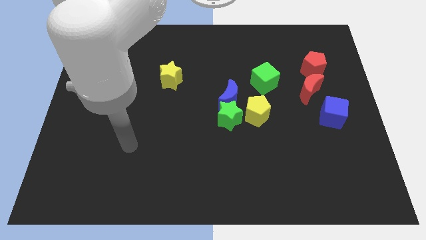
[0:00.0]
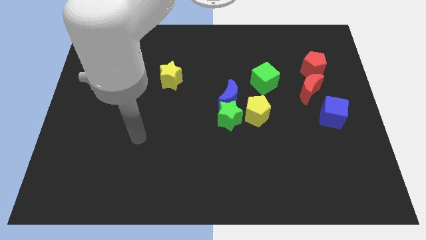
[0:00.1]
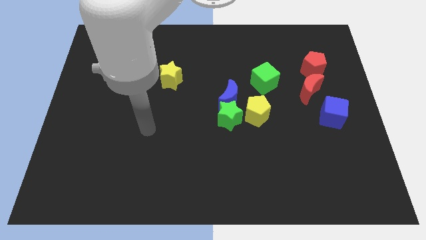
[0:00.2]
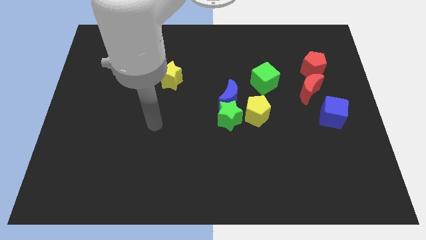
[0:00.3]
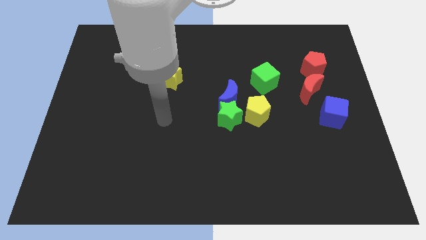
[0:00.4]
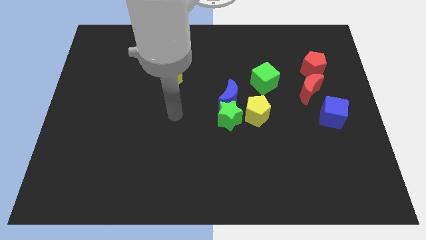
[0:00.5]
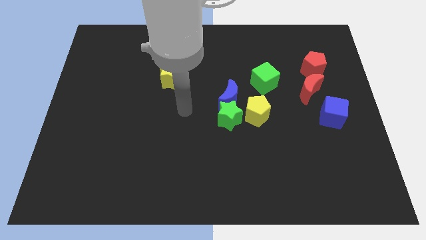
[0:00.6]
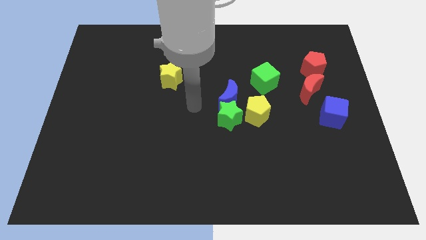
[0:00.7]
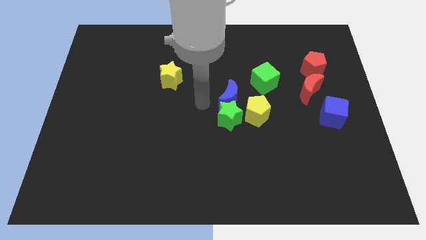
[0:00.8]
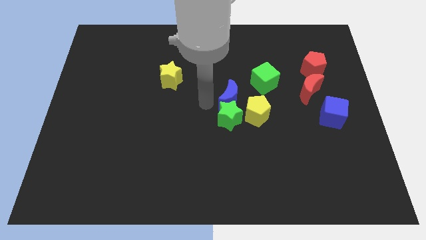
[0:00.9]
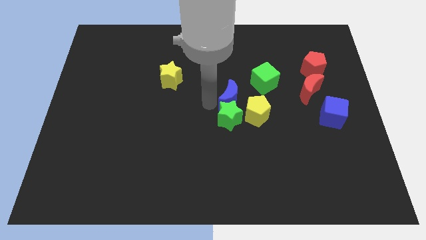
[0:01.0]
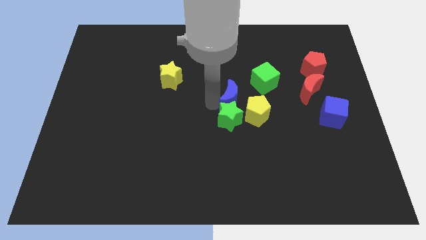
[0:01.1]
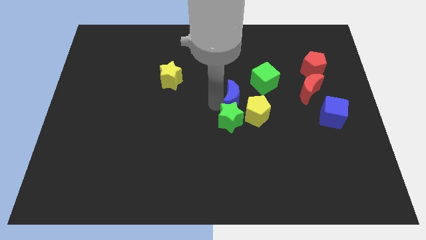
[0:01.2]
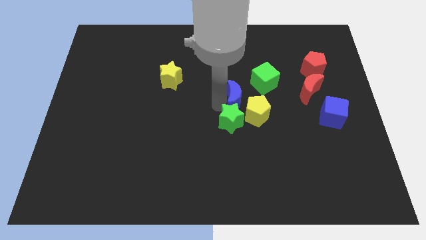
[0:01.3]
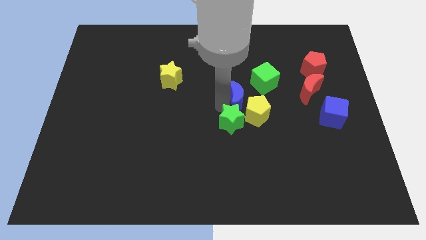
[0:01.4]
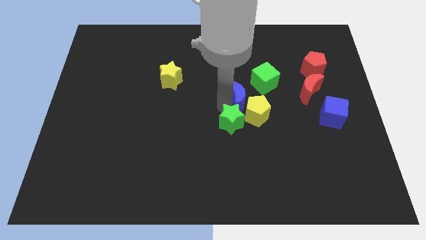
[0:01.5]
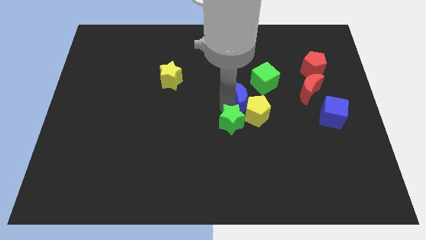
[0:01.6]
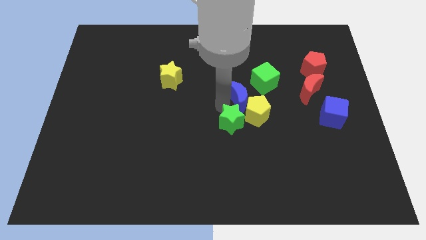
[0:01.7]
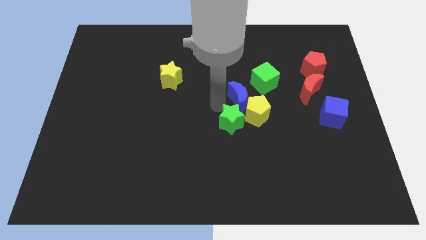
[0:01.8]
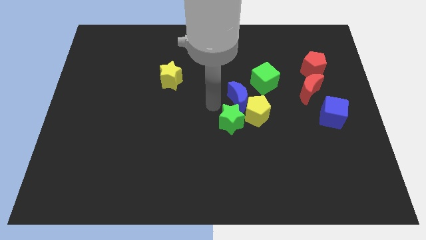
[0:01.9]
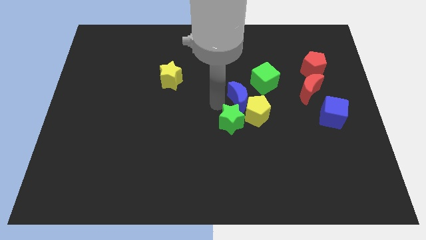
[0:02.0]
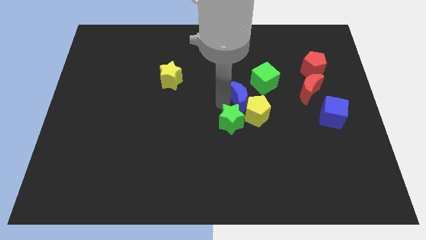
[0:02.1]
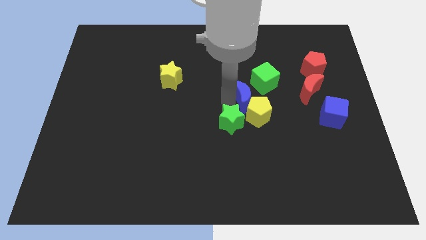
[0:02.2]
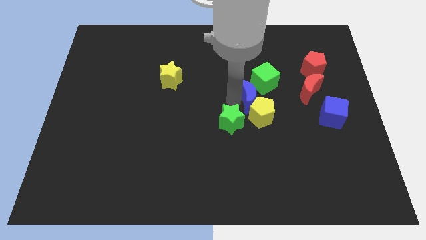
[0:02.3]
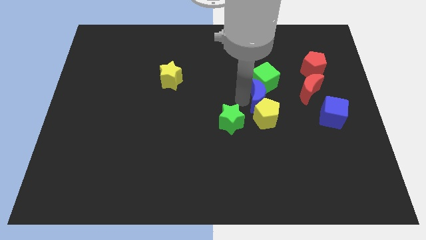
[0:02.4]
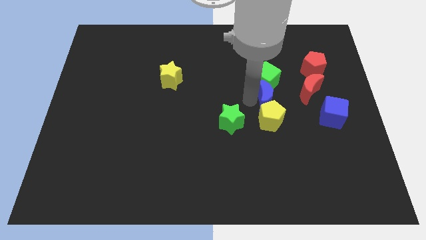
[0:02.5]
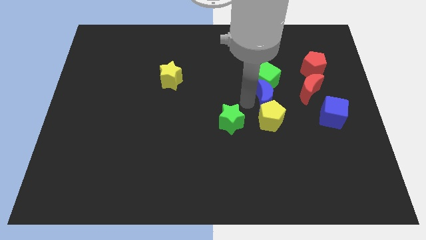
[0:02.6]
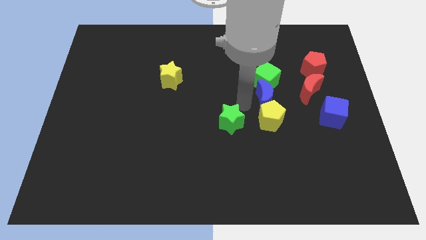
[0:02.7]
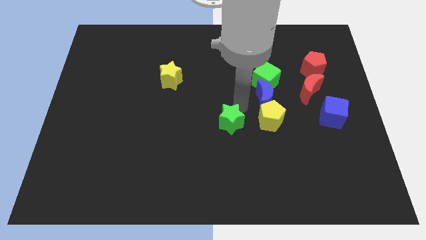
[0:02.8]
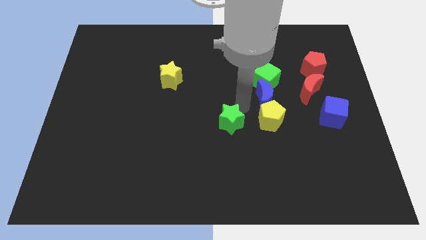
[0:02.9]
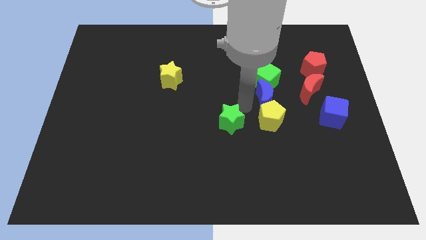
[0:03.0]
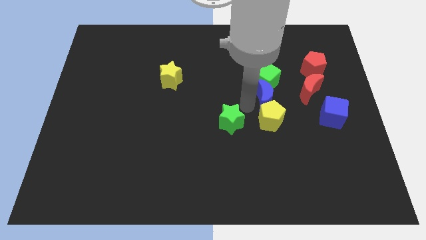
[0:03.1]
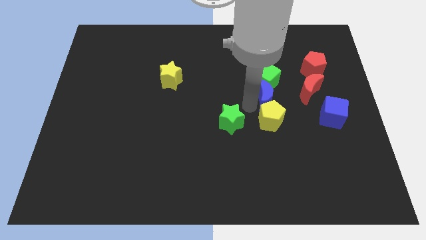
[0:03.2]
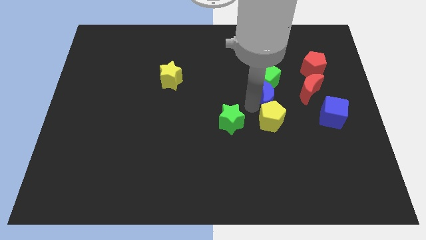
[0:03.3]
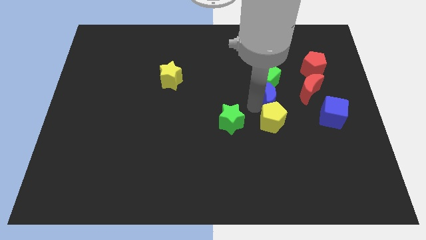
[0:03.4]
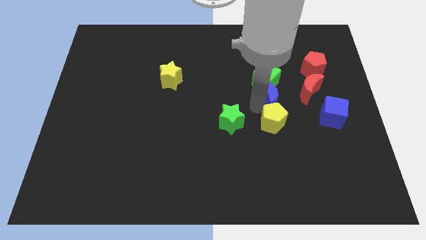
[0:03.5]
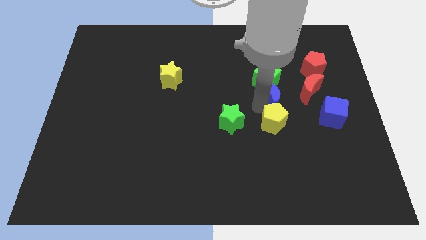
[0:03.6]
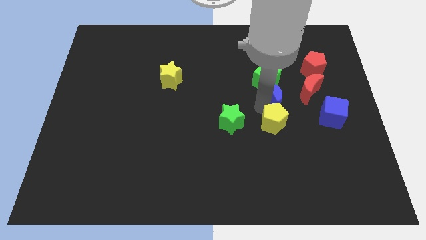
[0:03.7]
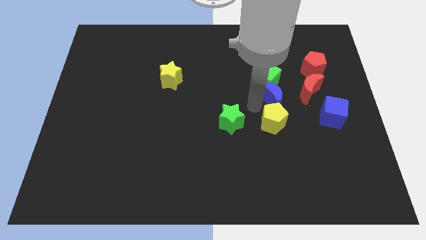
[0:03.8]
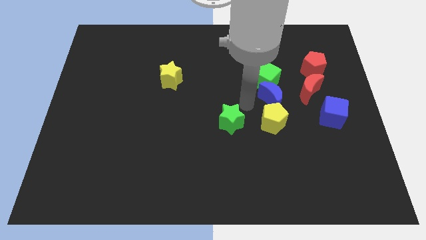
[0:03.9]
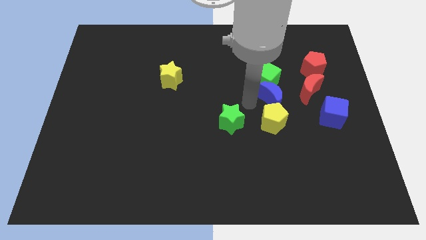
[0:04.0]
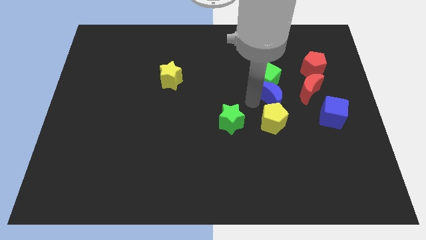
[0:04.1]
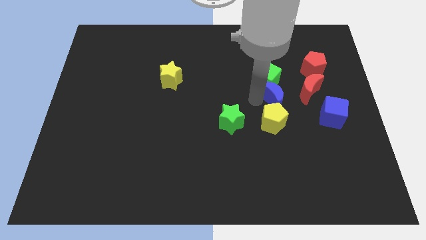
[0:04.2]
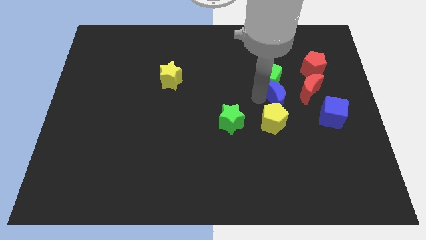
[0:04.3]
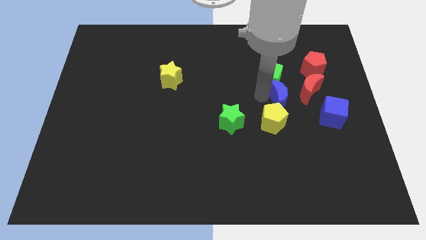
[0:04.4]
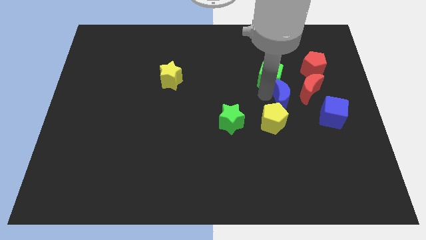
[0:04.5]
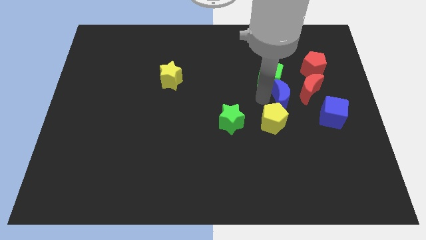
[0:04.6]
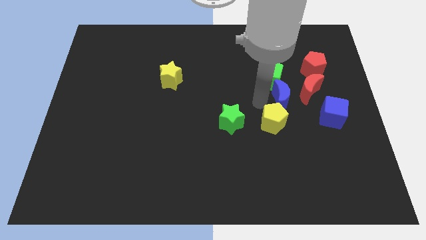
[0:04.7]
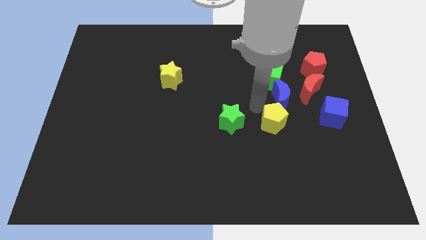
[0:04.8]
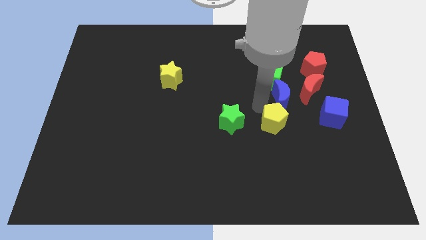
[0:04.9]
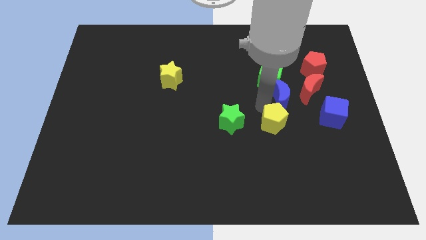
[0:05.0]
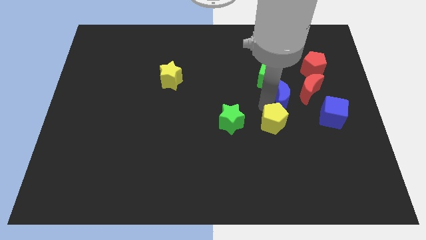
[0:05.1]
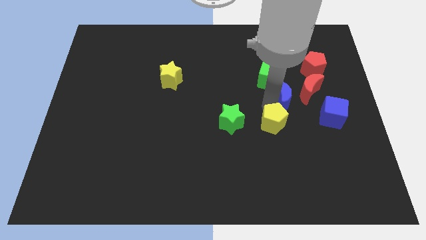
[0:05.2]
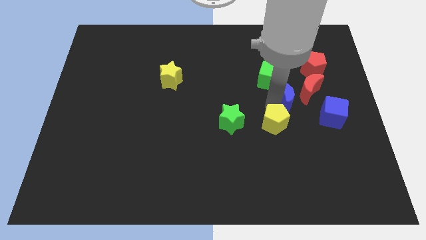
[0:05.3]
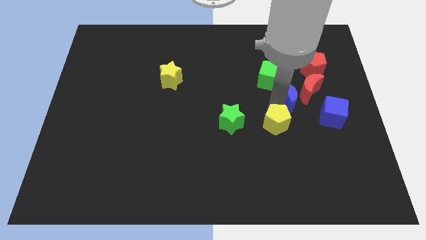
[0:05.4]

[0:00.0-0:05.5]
put the blue moon next to the red moon

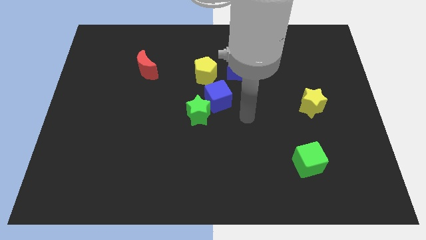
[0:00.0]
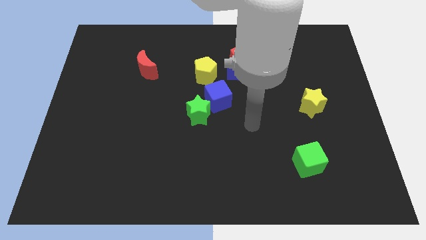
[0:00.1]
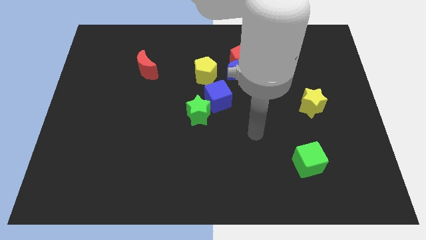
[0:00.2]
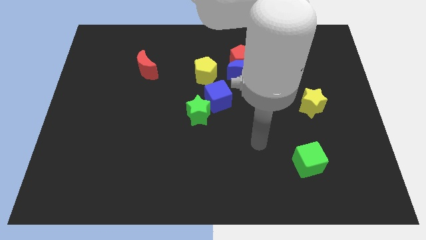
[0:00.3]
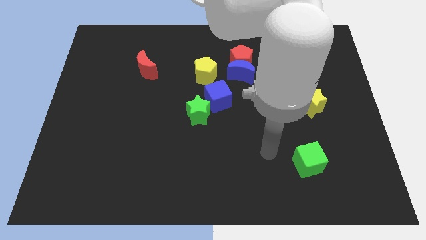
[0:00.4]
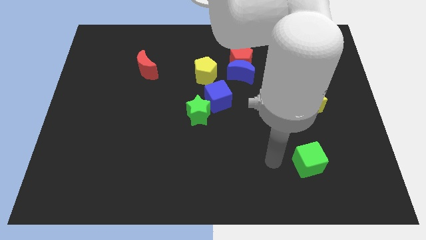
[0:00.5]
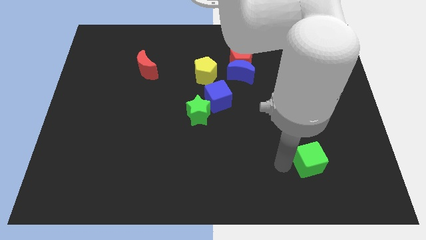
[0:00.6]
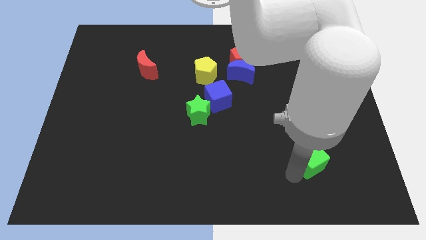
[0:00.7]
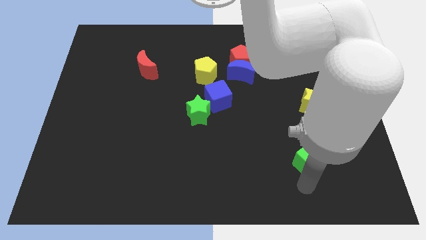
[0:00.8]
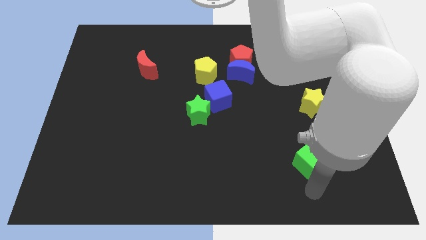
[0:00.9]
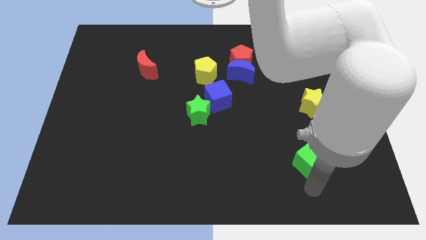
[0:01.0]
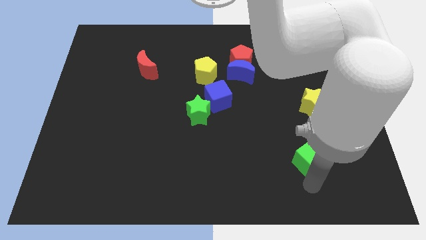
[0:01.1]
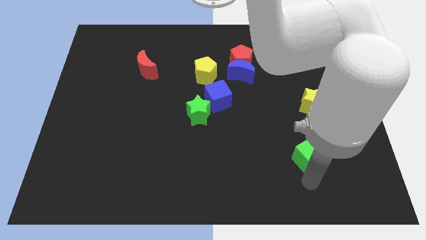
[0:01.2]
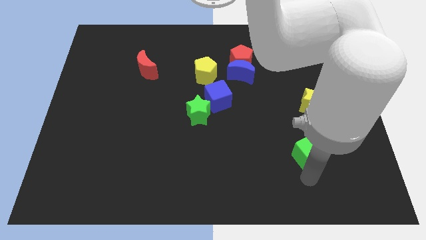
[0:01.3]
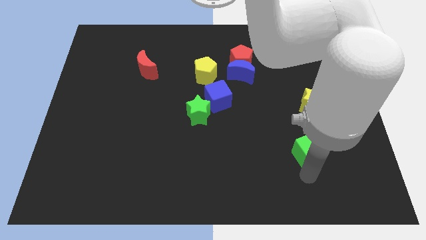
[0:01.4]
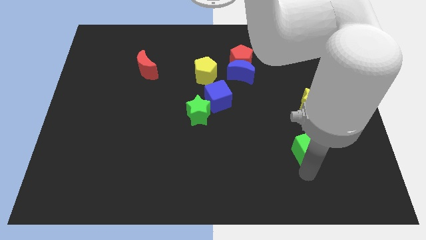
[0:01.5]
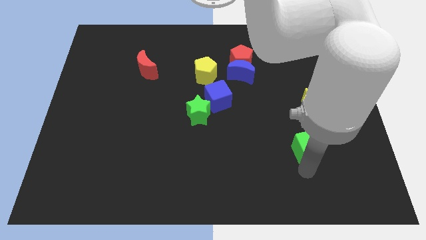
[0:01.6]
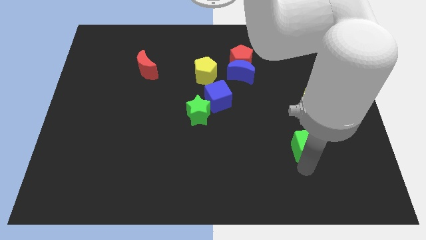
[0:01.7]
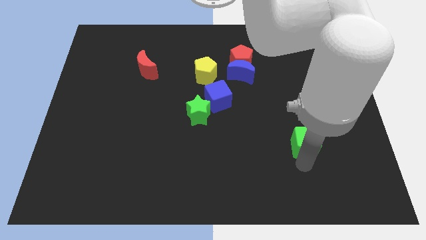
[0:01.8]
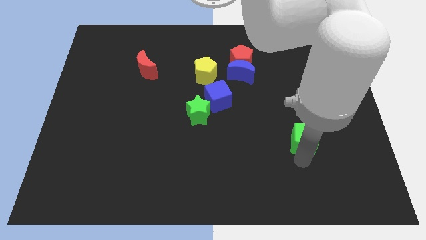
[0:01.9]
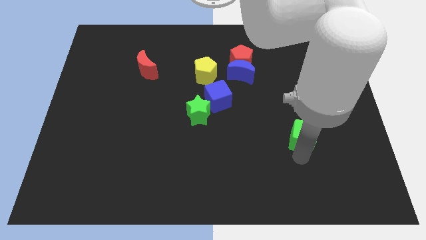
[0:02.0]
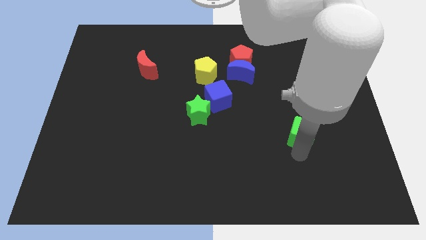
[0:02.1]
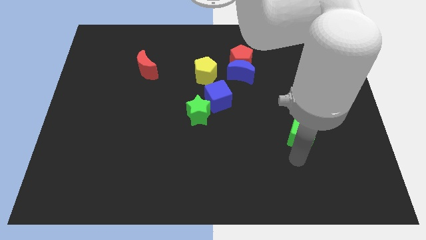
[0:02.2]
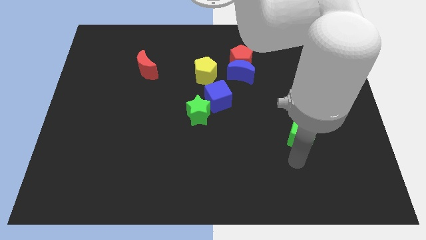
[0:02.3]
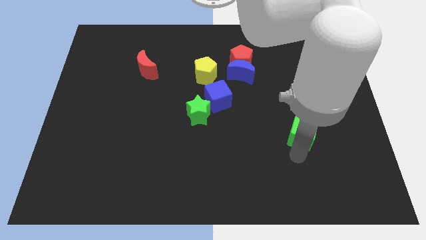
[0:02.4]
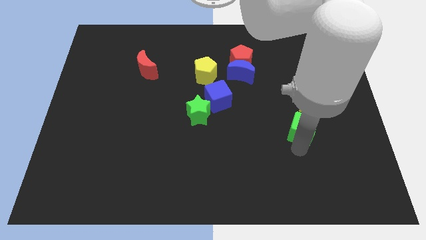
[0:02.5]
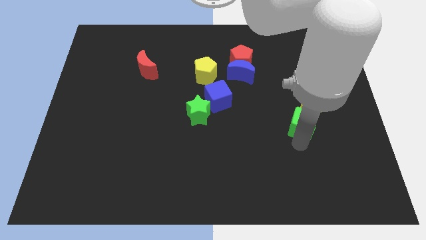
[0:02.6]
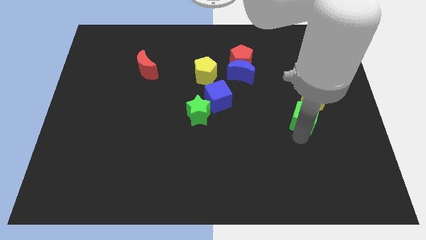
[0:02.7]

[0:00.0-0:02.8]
push the green cube close to the yellow star
